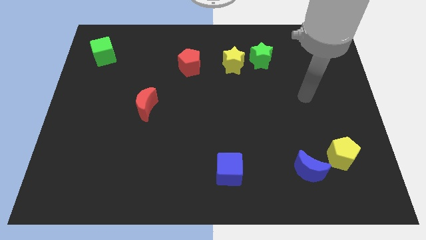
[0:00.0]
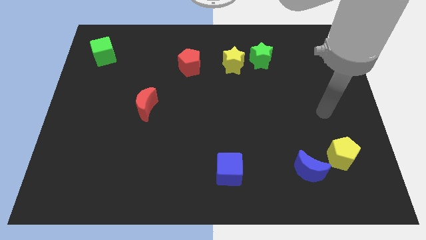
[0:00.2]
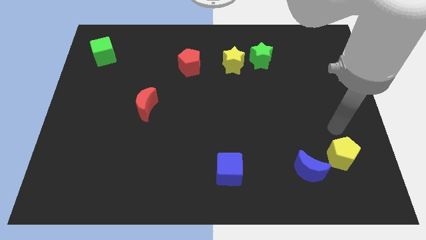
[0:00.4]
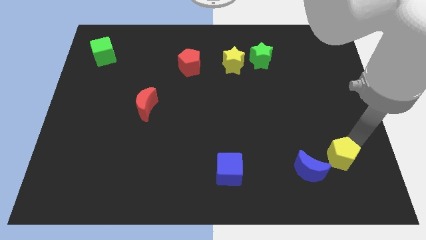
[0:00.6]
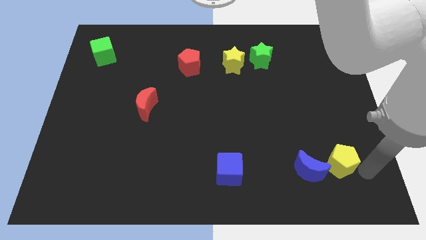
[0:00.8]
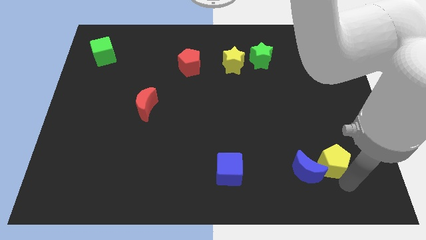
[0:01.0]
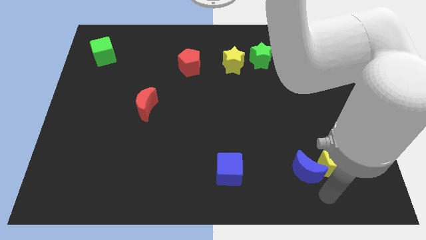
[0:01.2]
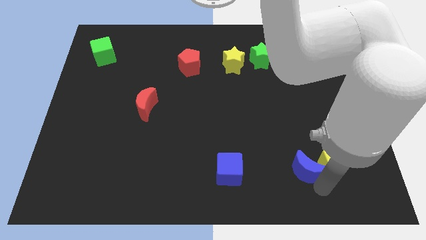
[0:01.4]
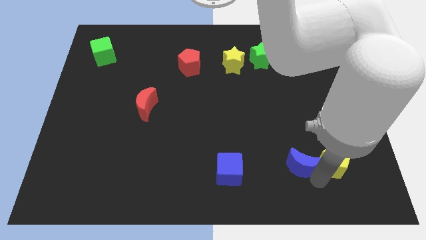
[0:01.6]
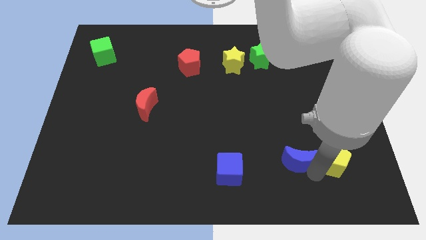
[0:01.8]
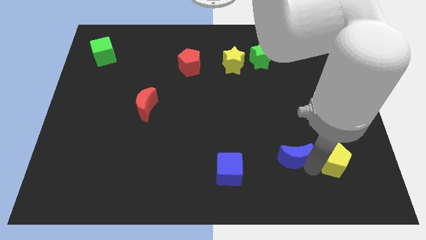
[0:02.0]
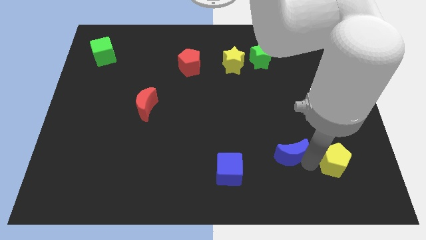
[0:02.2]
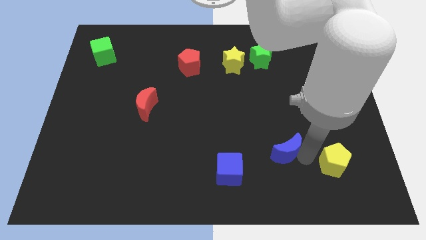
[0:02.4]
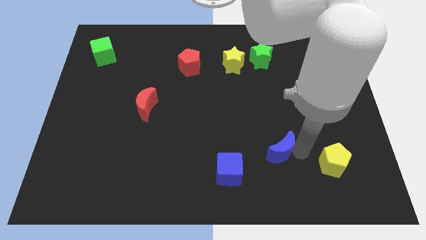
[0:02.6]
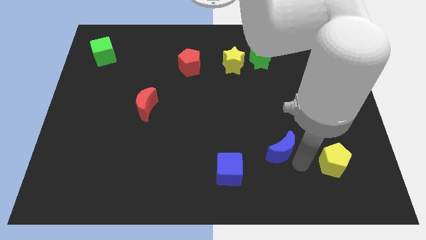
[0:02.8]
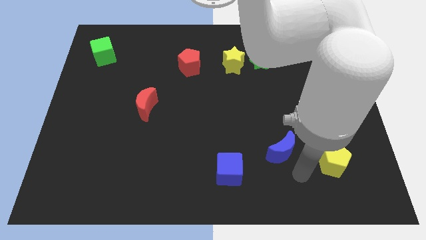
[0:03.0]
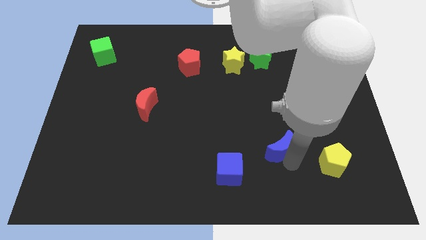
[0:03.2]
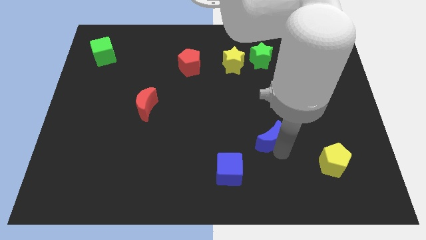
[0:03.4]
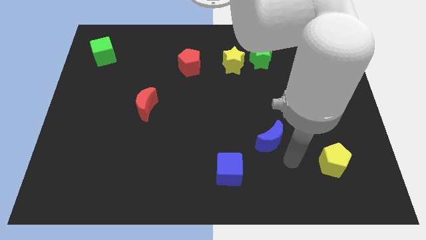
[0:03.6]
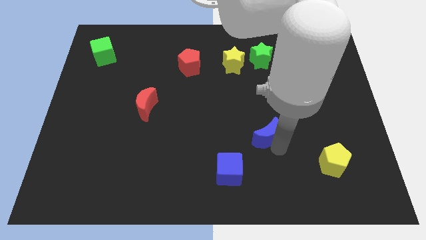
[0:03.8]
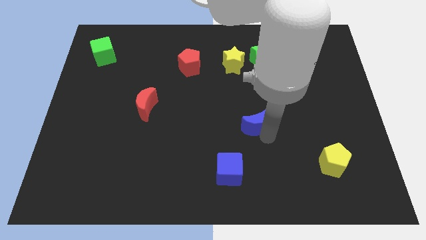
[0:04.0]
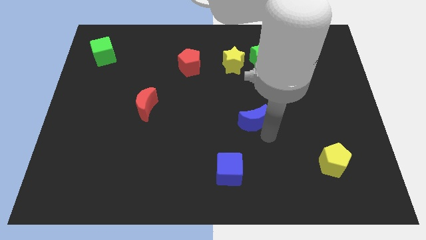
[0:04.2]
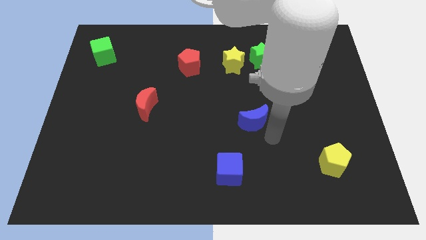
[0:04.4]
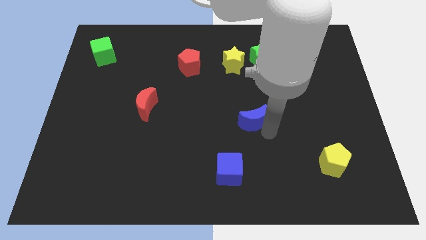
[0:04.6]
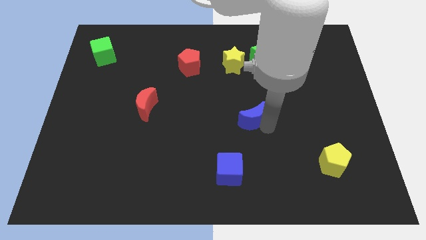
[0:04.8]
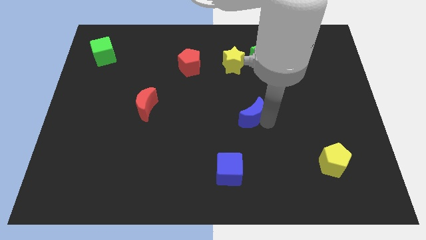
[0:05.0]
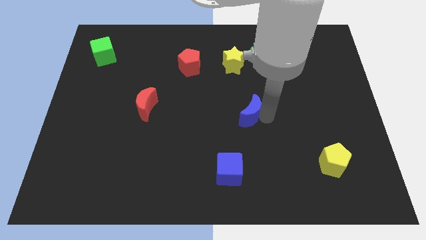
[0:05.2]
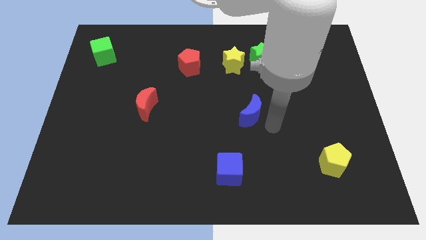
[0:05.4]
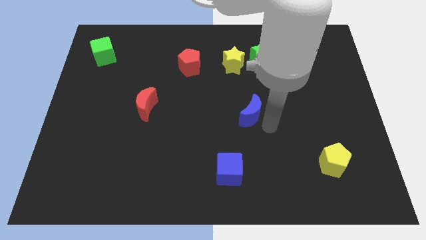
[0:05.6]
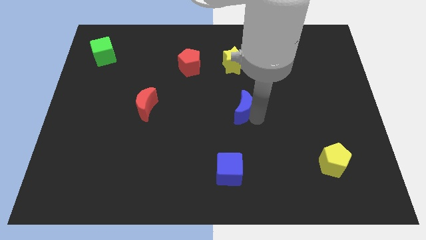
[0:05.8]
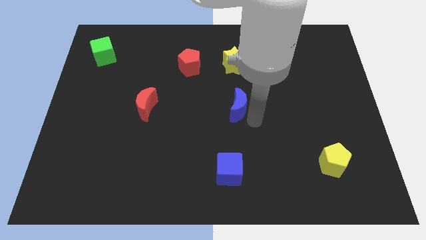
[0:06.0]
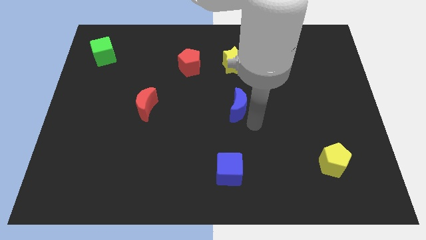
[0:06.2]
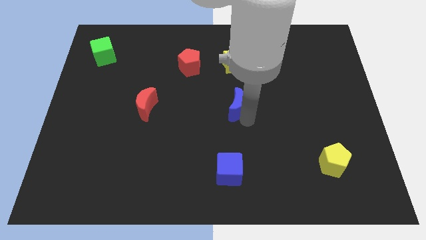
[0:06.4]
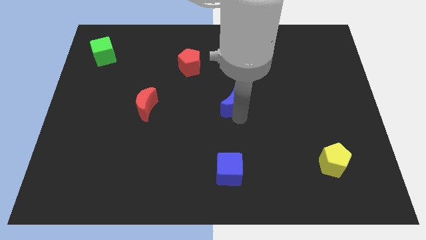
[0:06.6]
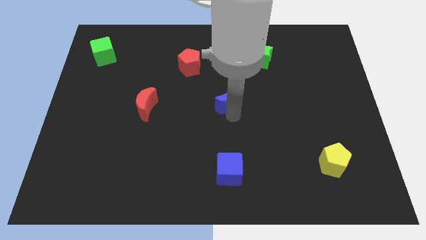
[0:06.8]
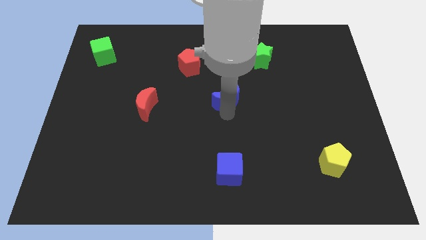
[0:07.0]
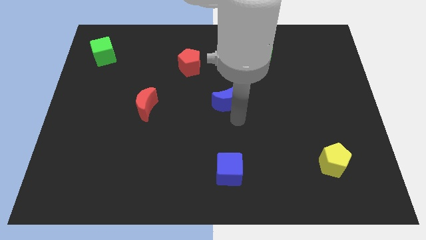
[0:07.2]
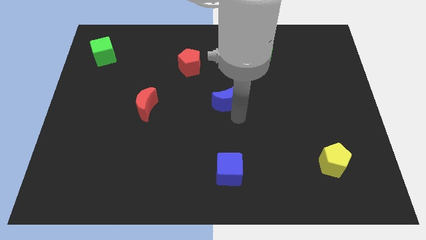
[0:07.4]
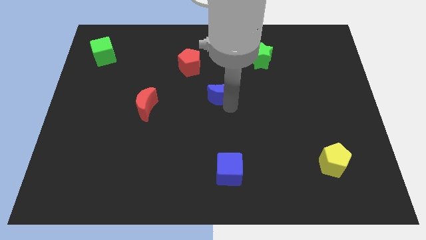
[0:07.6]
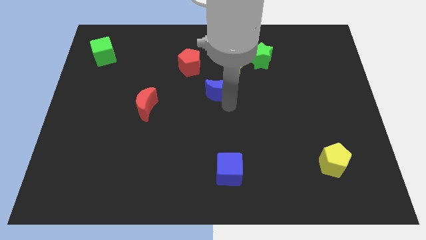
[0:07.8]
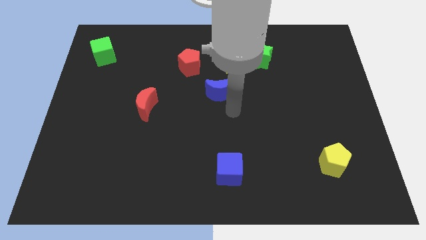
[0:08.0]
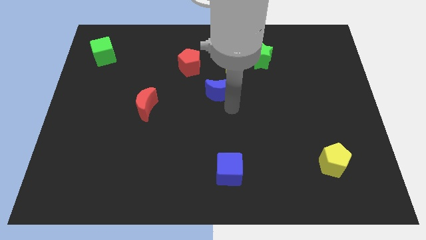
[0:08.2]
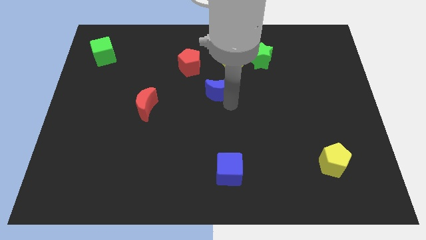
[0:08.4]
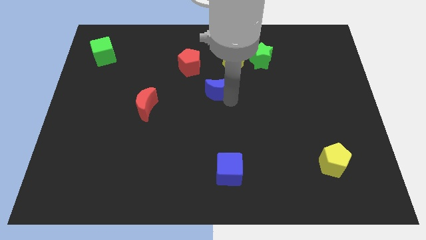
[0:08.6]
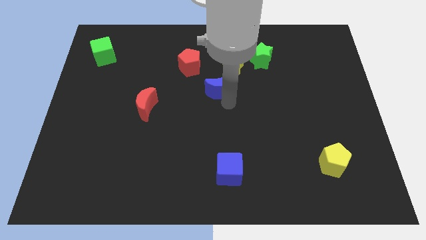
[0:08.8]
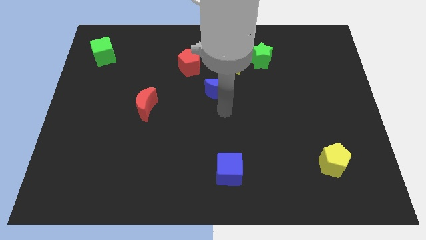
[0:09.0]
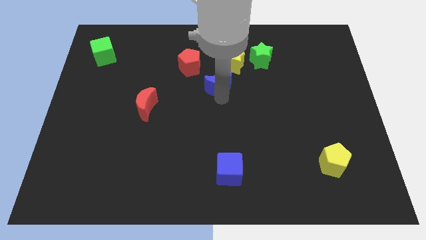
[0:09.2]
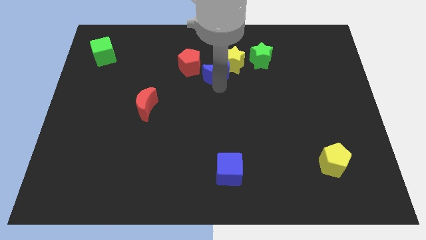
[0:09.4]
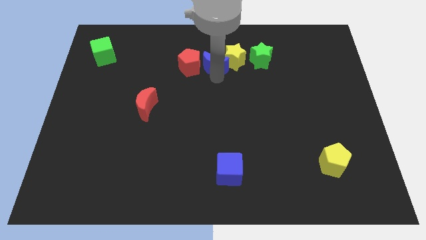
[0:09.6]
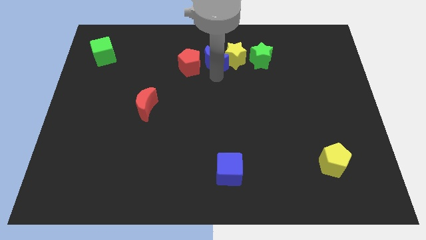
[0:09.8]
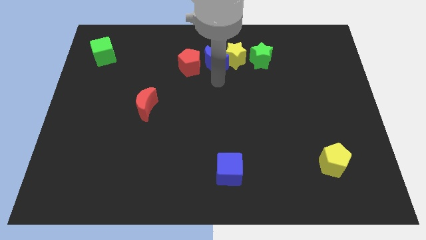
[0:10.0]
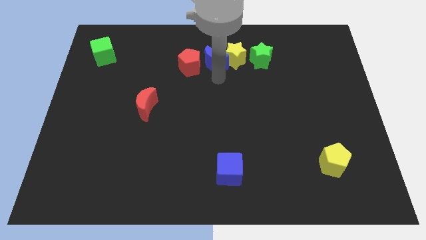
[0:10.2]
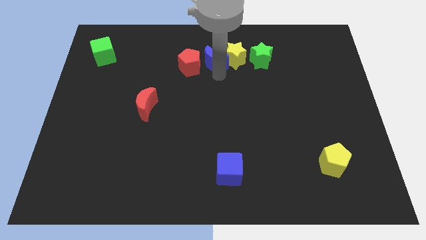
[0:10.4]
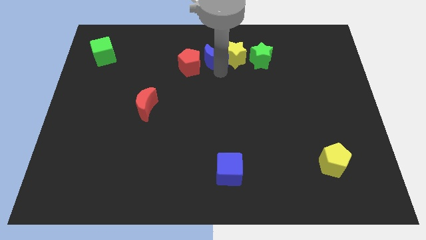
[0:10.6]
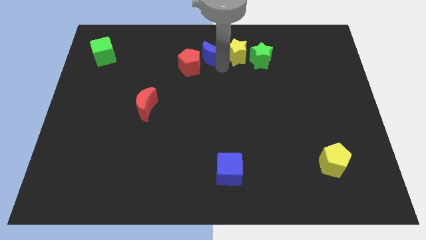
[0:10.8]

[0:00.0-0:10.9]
slide the blue moon to the towards your base
